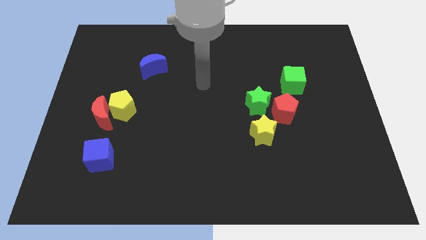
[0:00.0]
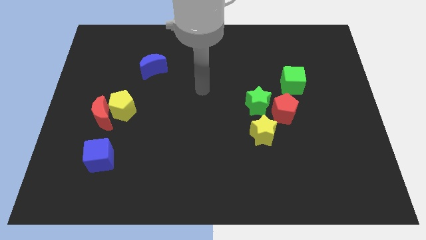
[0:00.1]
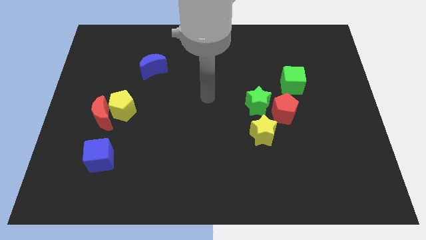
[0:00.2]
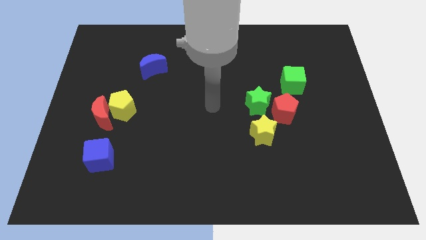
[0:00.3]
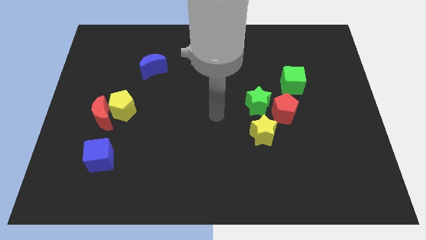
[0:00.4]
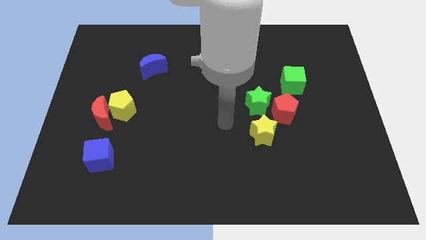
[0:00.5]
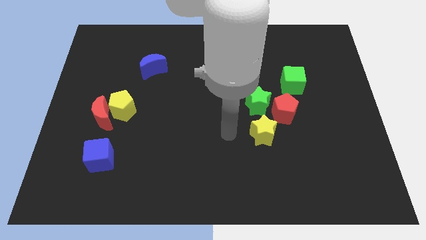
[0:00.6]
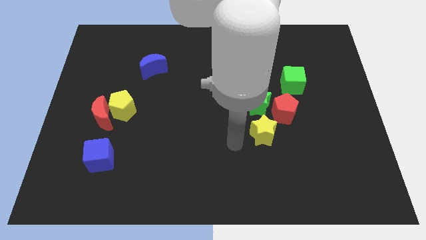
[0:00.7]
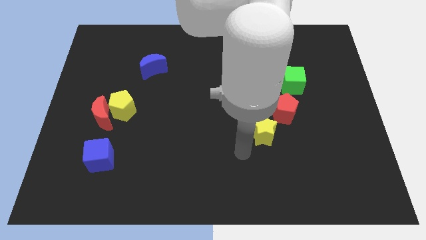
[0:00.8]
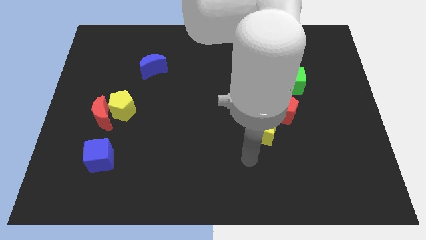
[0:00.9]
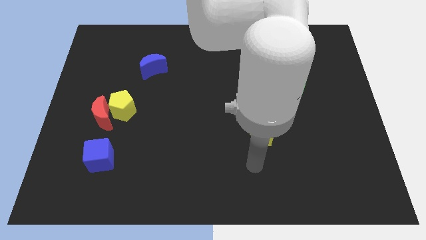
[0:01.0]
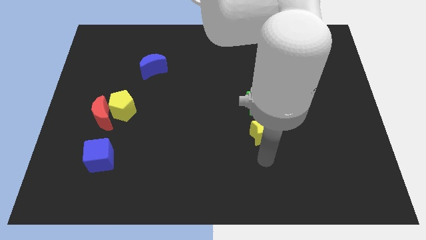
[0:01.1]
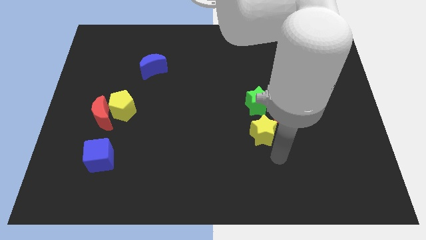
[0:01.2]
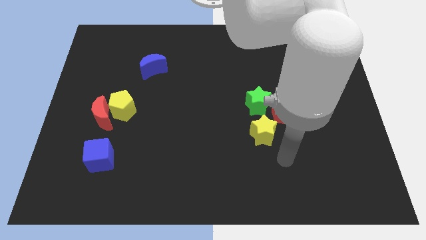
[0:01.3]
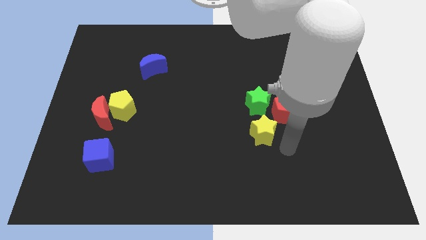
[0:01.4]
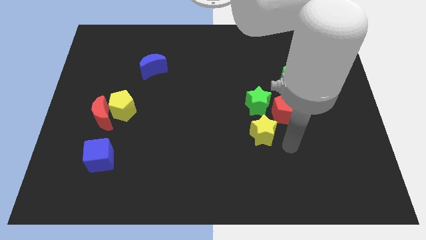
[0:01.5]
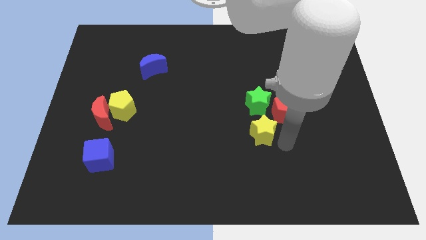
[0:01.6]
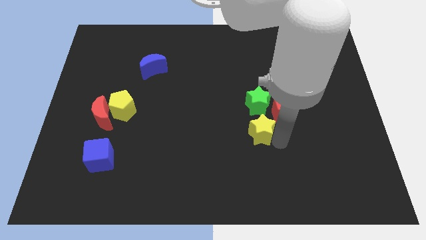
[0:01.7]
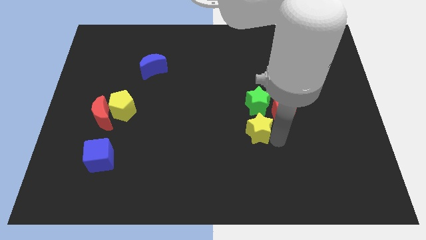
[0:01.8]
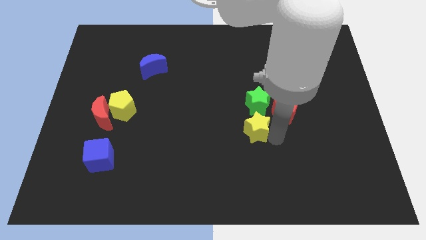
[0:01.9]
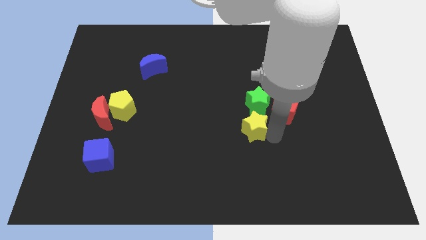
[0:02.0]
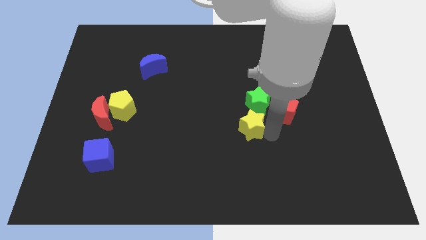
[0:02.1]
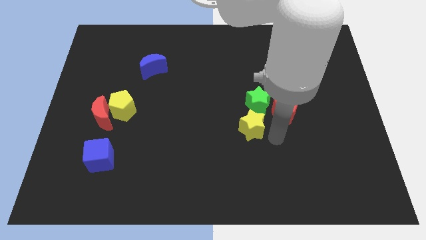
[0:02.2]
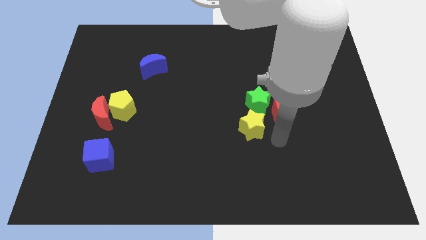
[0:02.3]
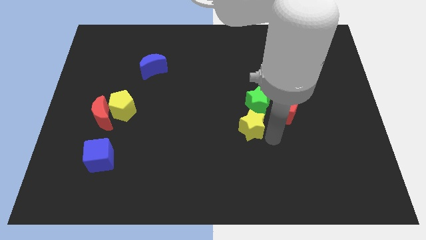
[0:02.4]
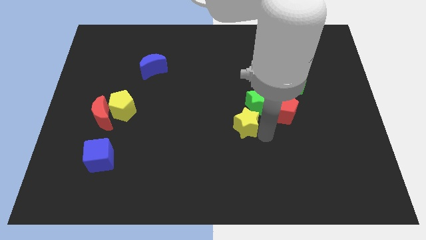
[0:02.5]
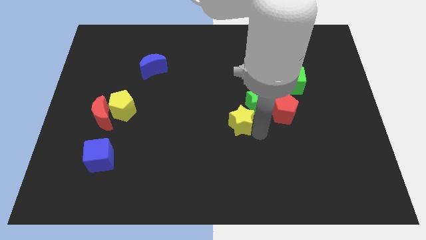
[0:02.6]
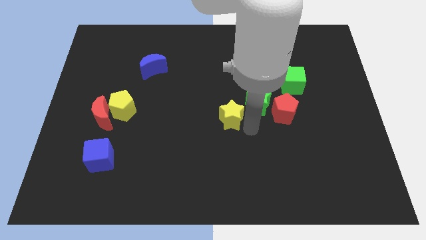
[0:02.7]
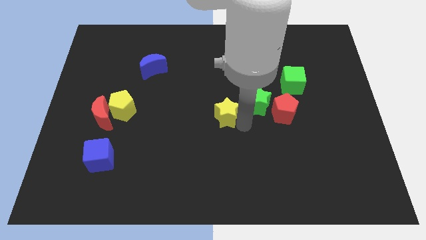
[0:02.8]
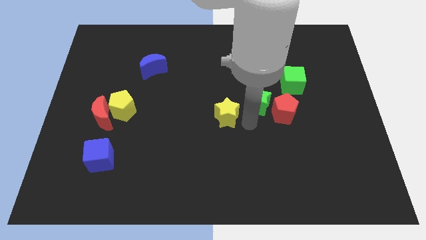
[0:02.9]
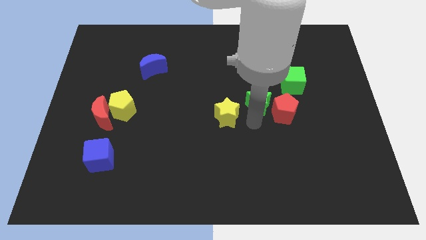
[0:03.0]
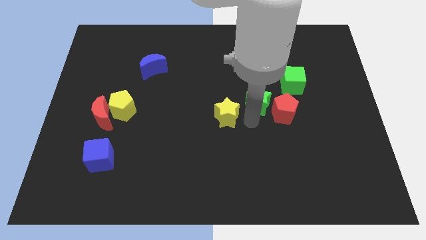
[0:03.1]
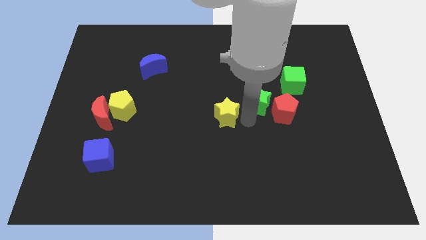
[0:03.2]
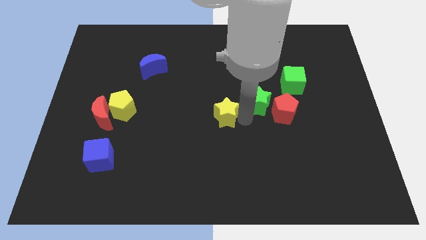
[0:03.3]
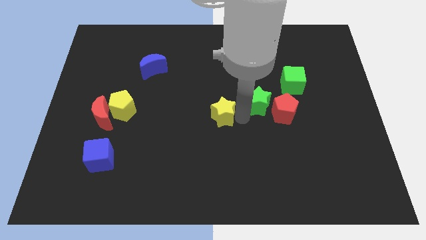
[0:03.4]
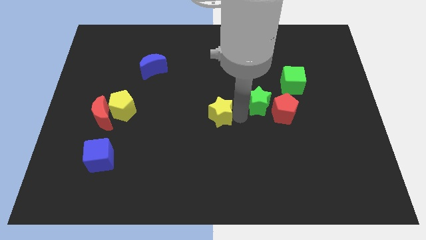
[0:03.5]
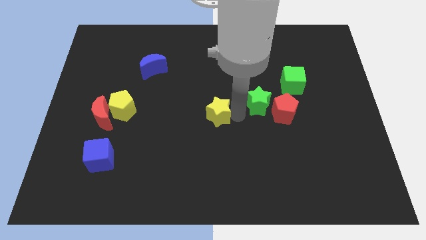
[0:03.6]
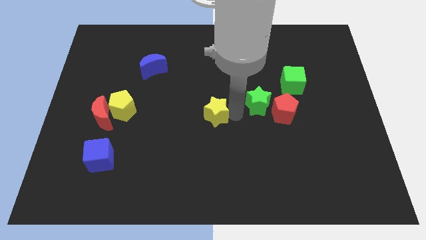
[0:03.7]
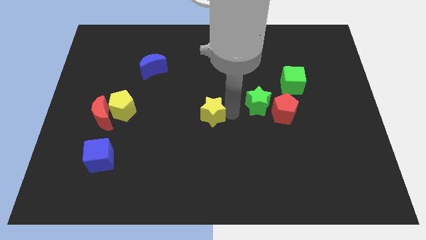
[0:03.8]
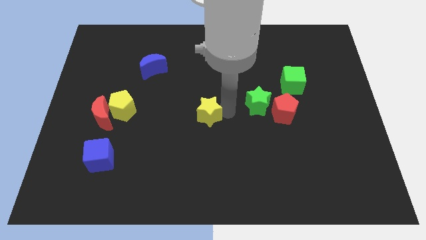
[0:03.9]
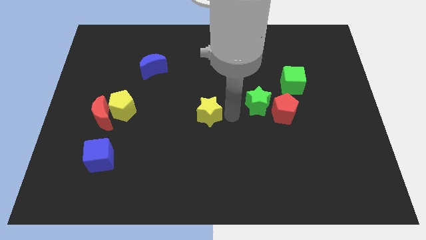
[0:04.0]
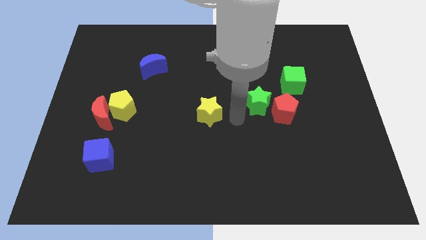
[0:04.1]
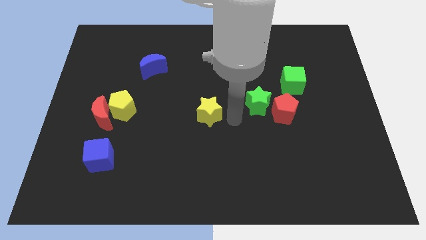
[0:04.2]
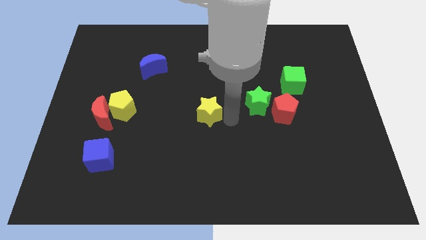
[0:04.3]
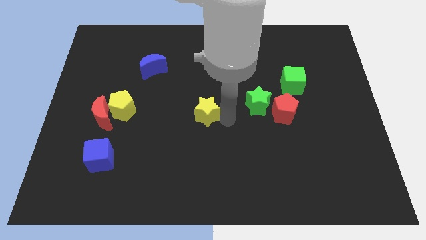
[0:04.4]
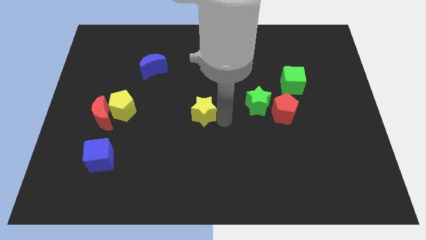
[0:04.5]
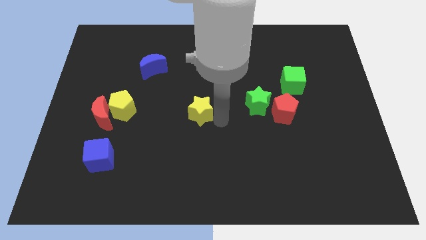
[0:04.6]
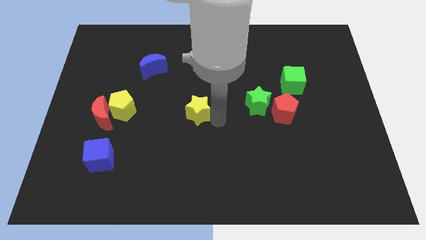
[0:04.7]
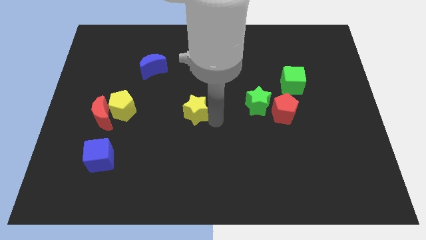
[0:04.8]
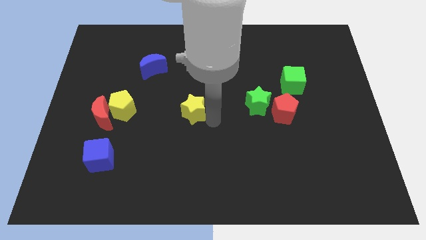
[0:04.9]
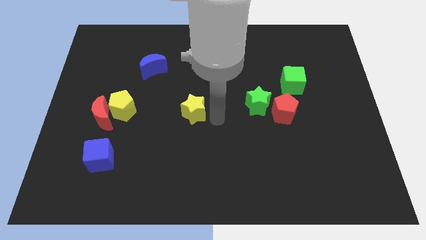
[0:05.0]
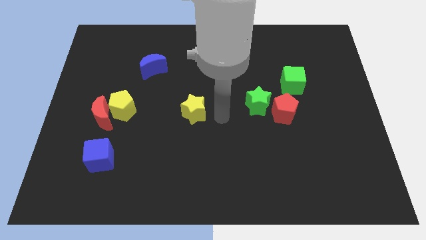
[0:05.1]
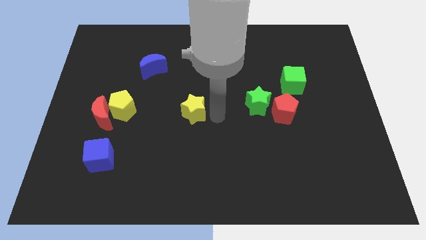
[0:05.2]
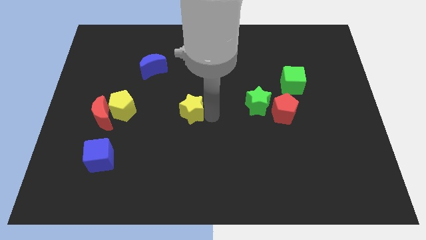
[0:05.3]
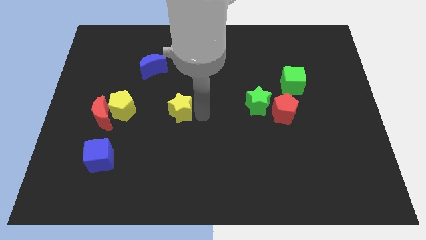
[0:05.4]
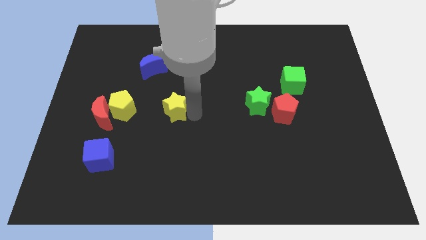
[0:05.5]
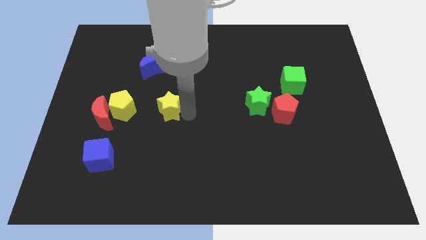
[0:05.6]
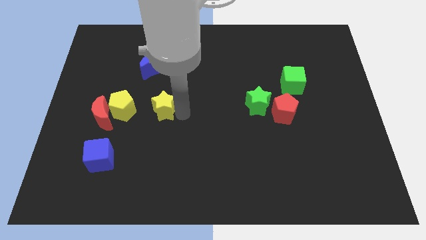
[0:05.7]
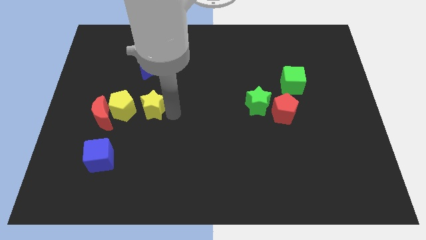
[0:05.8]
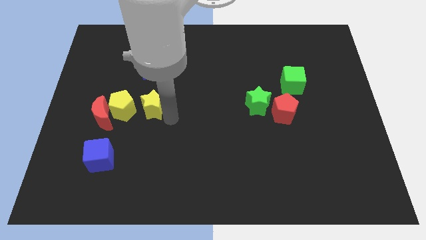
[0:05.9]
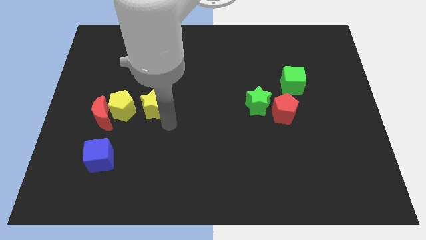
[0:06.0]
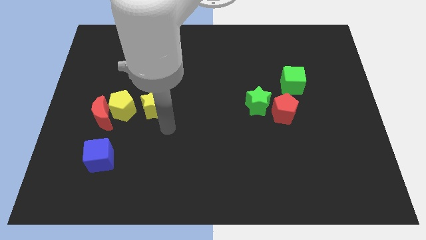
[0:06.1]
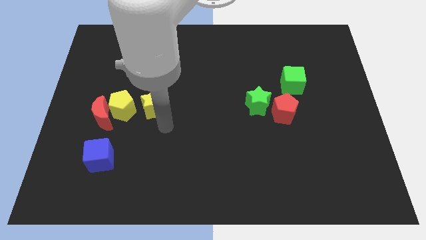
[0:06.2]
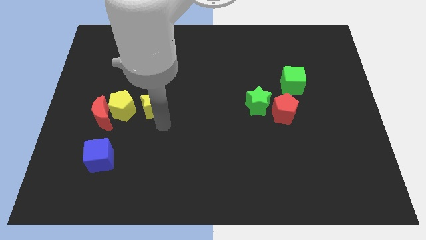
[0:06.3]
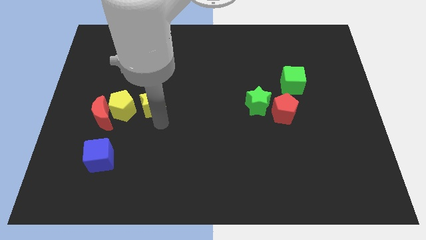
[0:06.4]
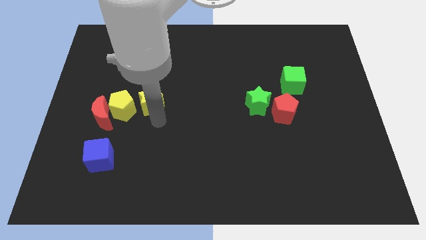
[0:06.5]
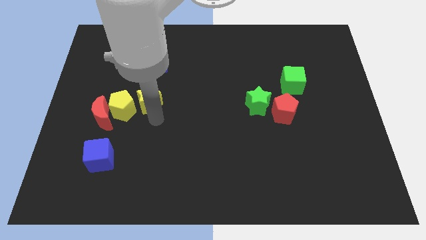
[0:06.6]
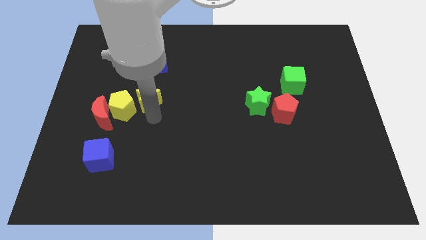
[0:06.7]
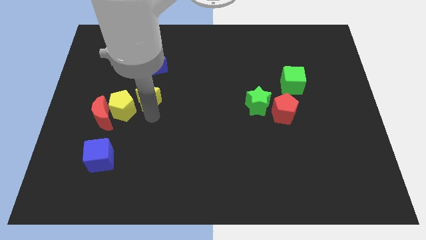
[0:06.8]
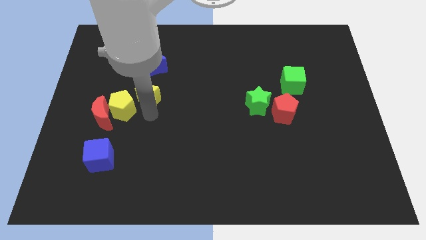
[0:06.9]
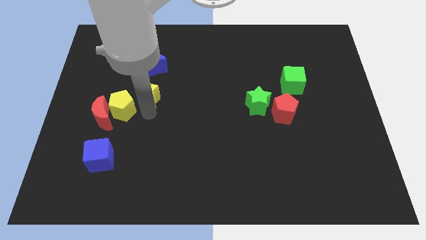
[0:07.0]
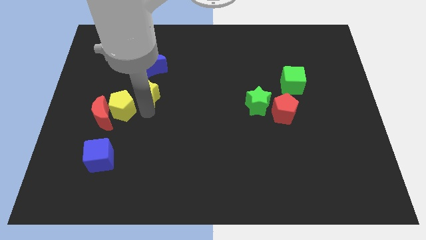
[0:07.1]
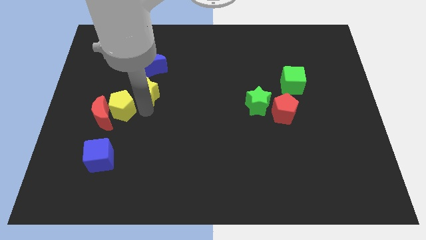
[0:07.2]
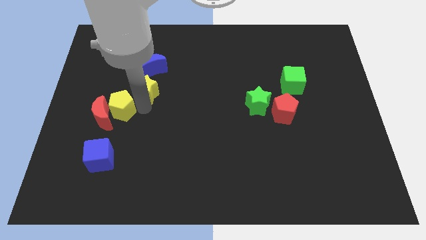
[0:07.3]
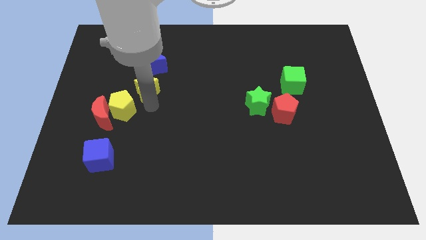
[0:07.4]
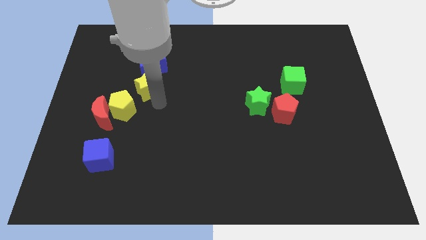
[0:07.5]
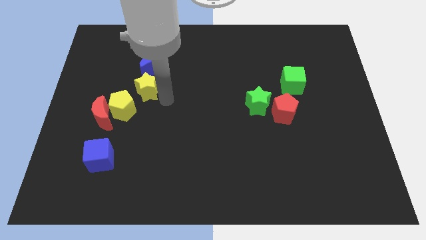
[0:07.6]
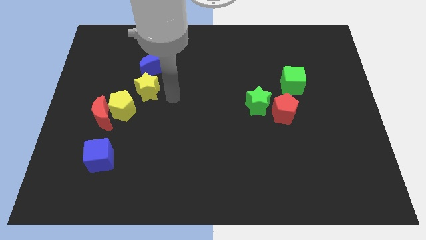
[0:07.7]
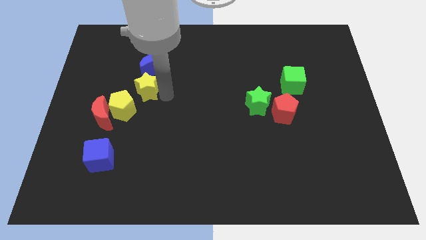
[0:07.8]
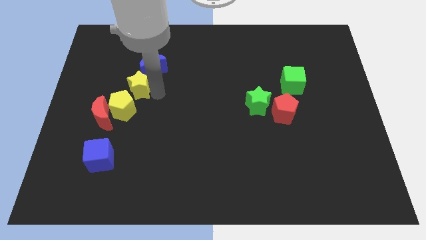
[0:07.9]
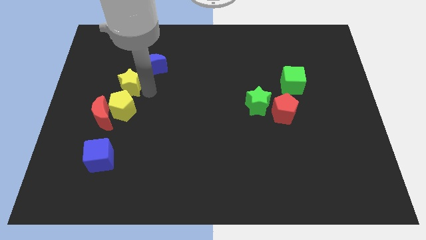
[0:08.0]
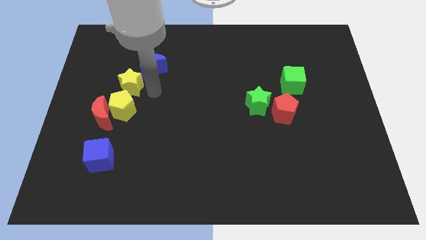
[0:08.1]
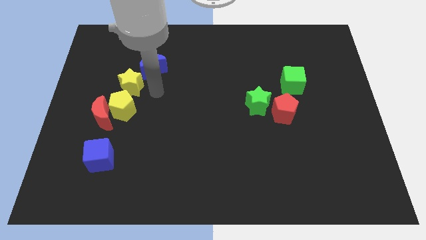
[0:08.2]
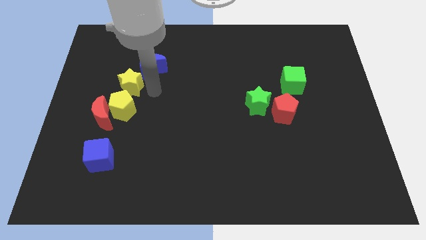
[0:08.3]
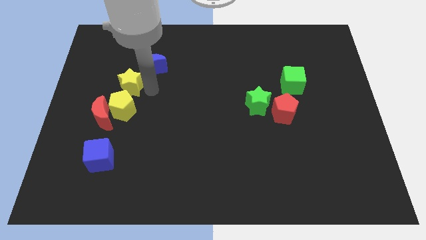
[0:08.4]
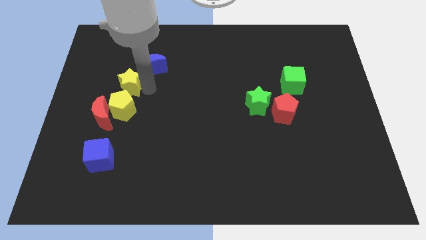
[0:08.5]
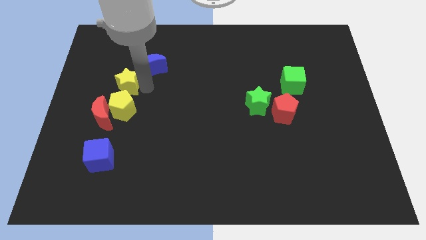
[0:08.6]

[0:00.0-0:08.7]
slide the yellow star to the top side of the red moon
